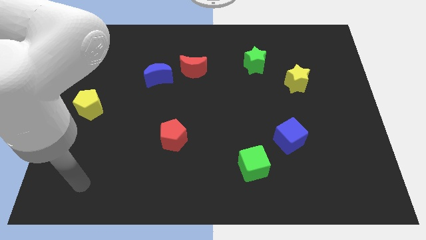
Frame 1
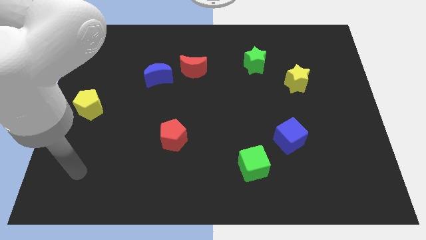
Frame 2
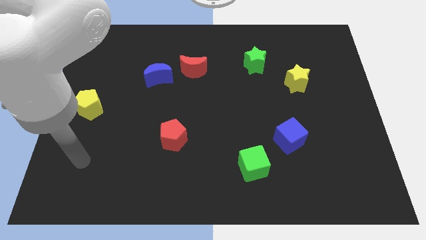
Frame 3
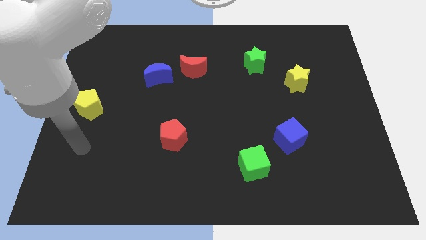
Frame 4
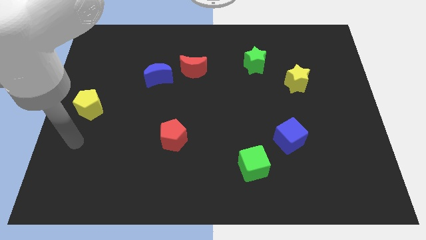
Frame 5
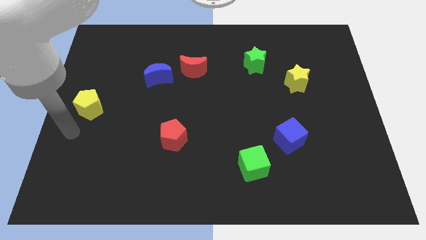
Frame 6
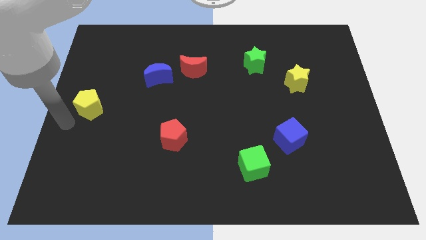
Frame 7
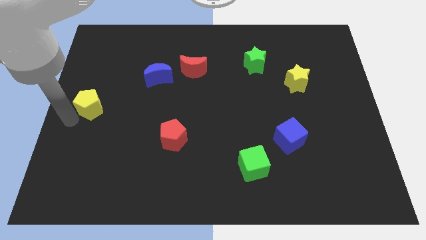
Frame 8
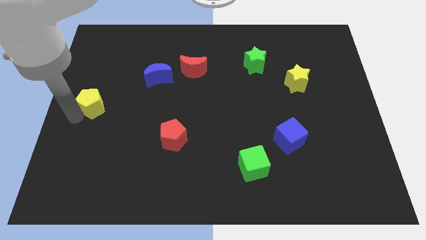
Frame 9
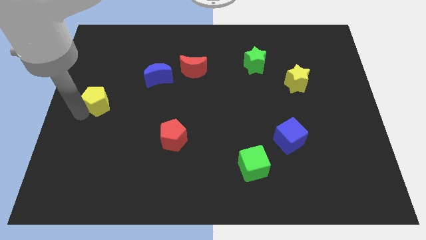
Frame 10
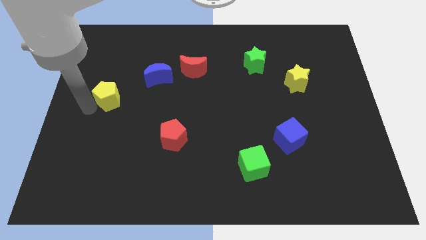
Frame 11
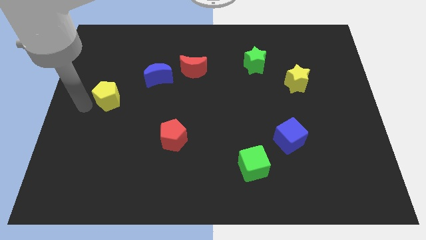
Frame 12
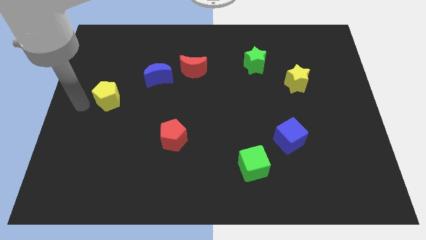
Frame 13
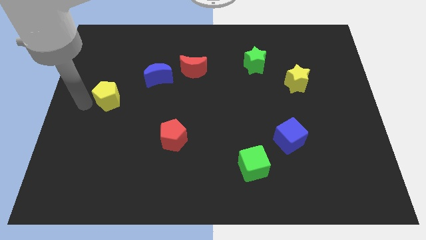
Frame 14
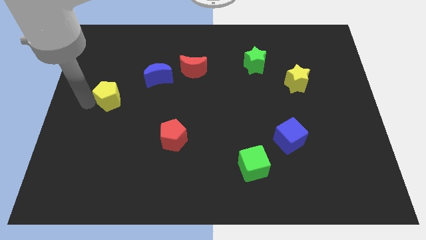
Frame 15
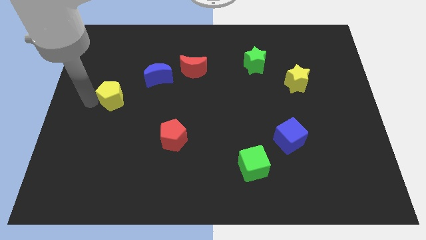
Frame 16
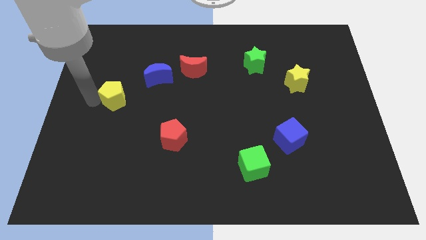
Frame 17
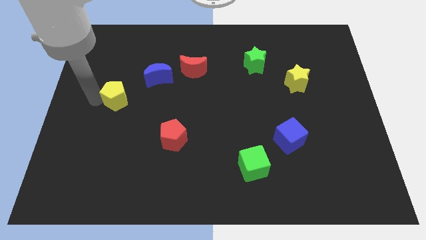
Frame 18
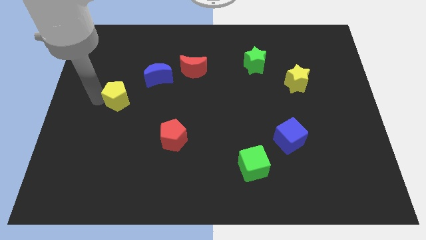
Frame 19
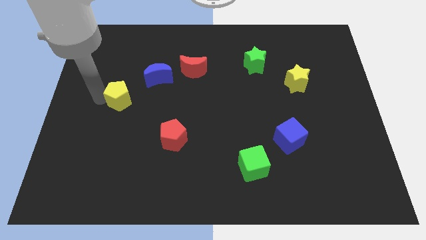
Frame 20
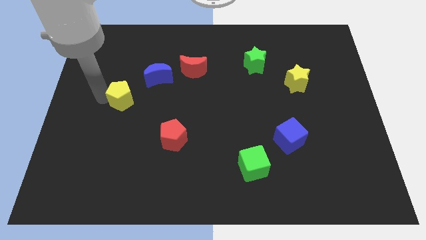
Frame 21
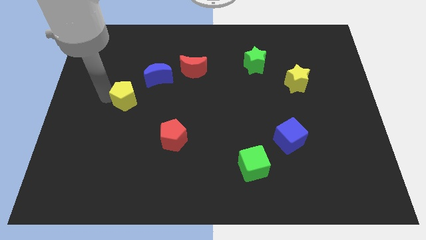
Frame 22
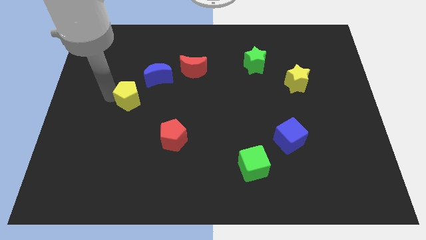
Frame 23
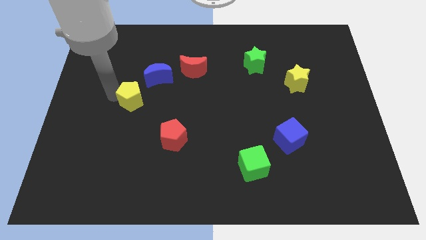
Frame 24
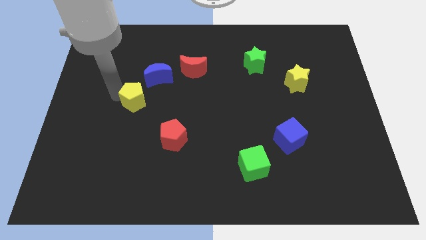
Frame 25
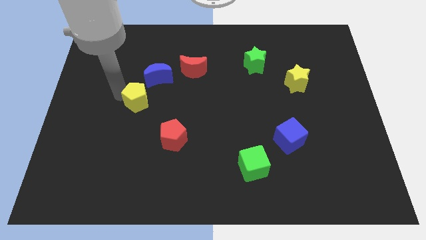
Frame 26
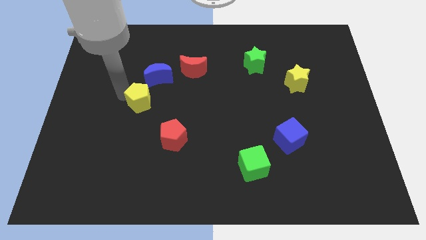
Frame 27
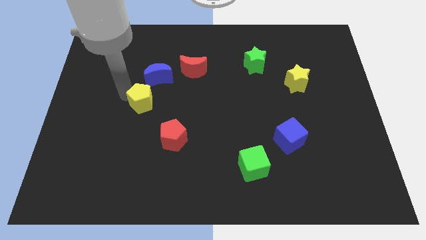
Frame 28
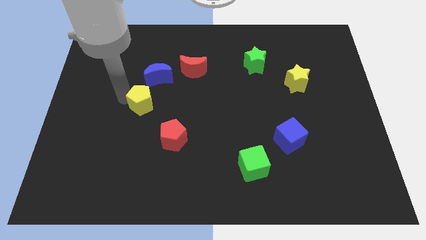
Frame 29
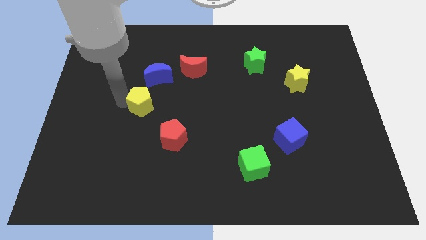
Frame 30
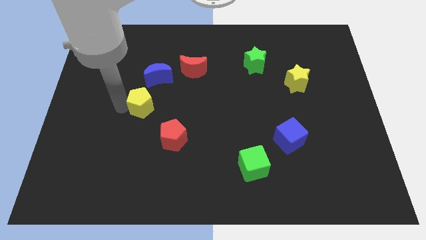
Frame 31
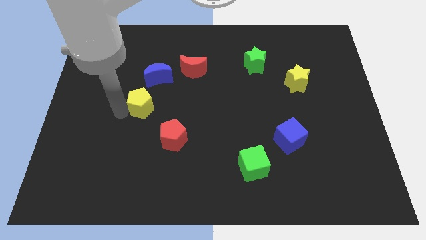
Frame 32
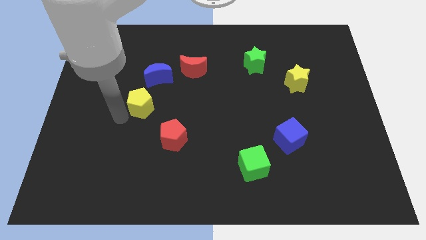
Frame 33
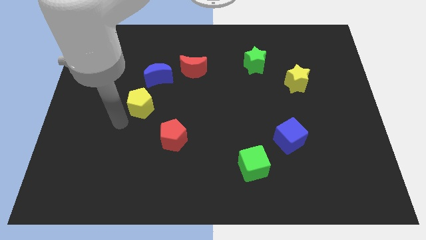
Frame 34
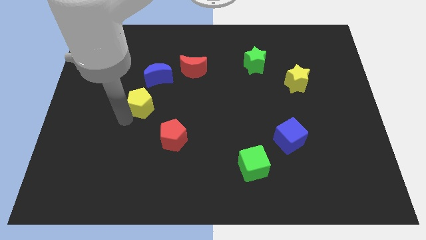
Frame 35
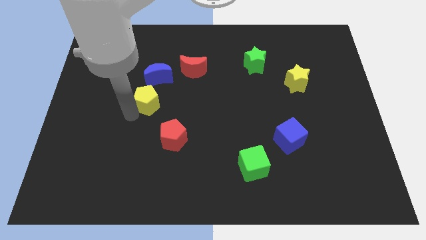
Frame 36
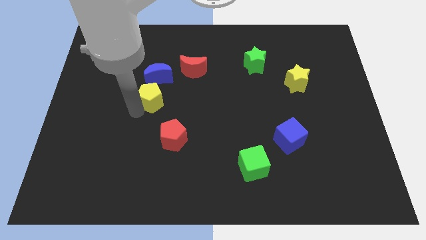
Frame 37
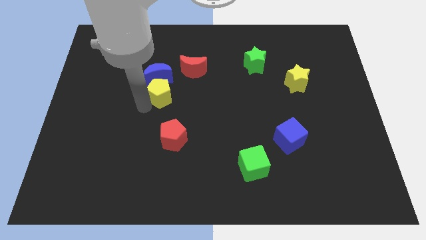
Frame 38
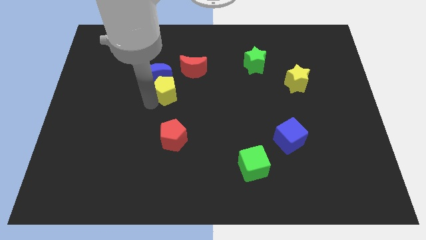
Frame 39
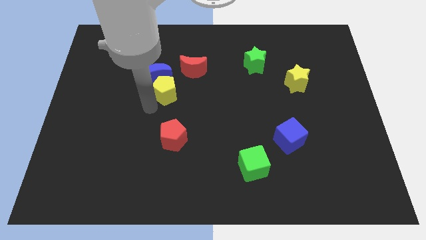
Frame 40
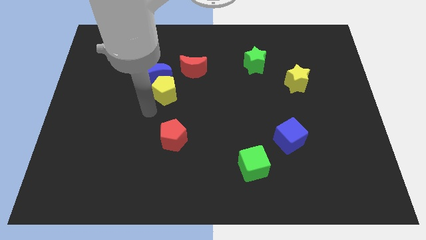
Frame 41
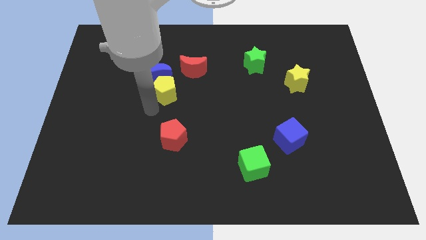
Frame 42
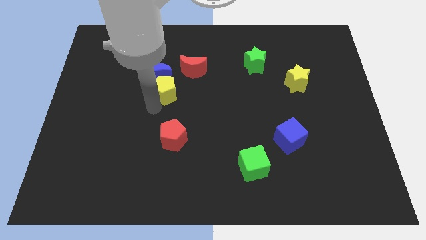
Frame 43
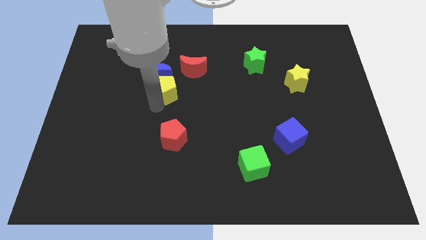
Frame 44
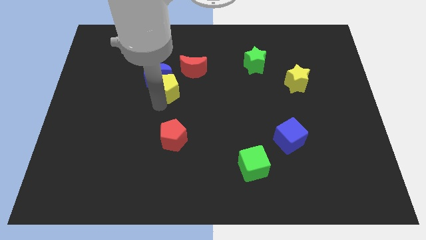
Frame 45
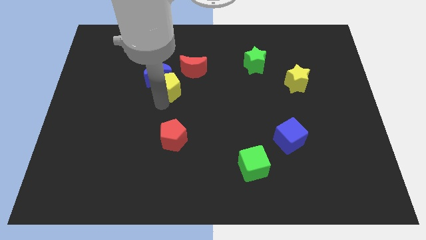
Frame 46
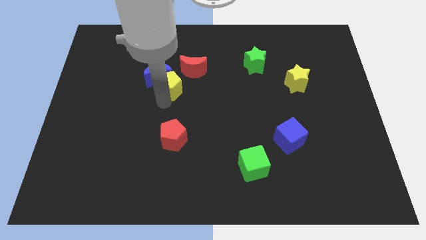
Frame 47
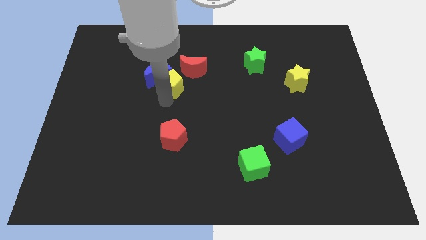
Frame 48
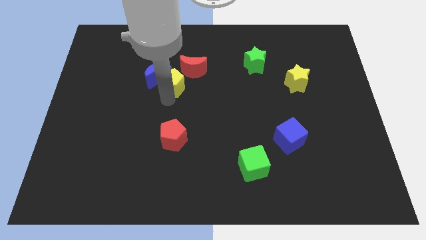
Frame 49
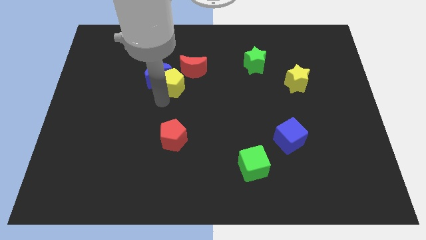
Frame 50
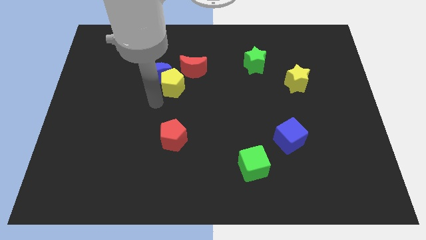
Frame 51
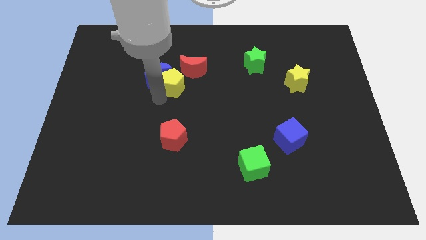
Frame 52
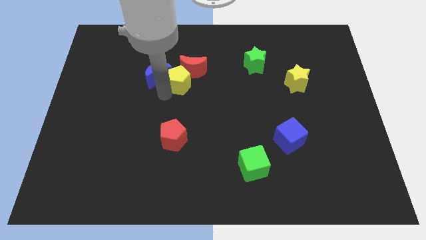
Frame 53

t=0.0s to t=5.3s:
put the yellow pentagon towards the red moon

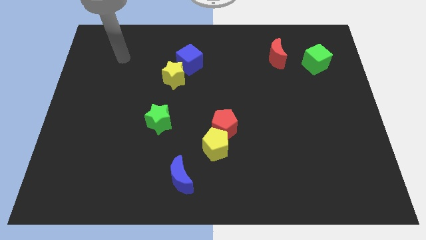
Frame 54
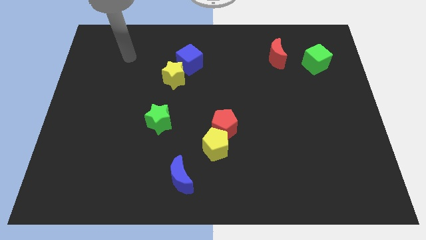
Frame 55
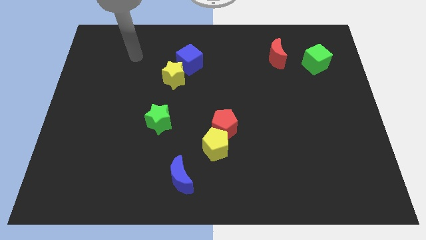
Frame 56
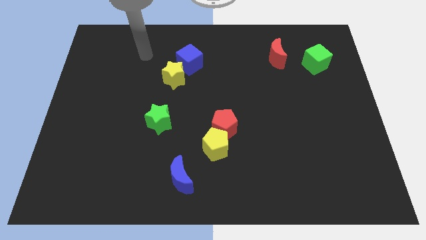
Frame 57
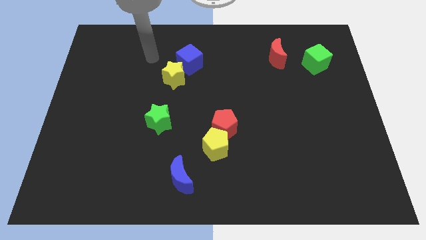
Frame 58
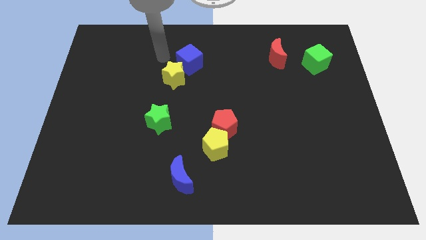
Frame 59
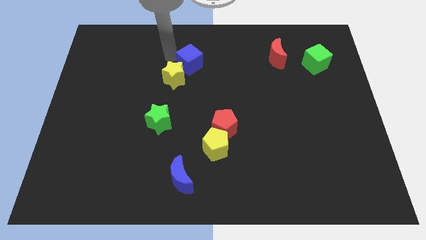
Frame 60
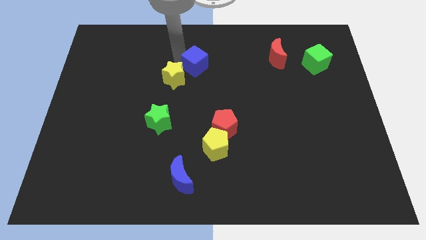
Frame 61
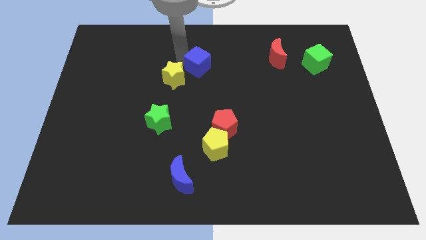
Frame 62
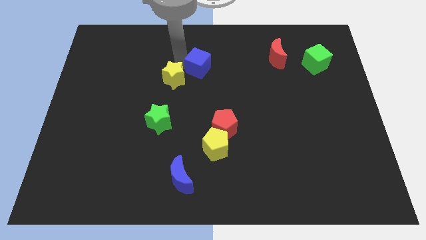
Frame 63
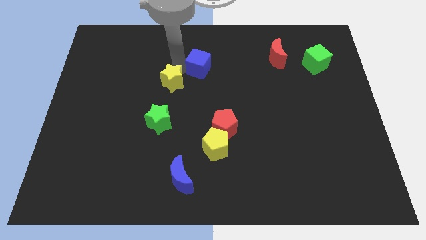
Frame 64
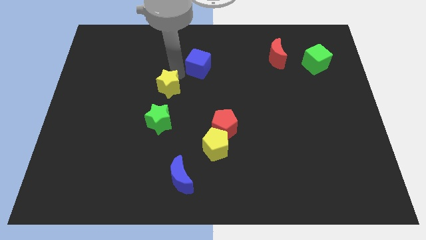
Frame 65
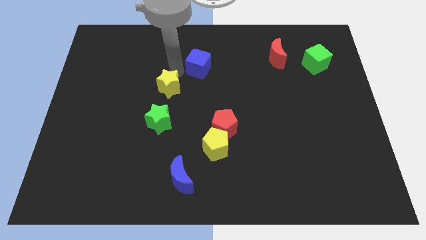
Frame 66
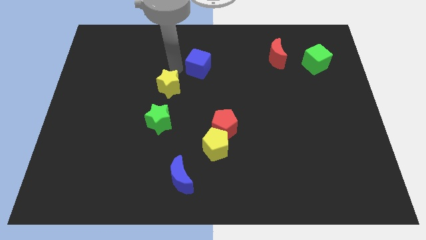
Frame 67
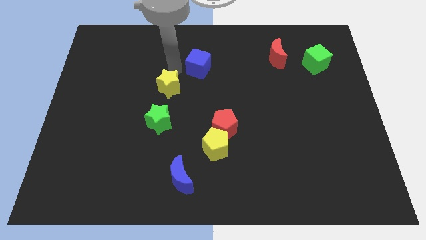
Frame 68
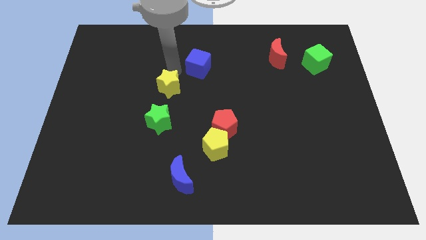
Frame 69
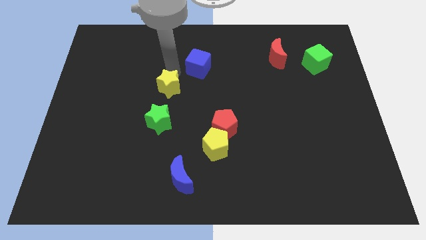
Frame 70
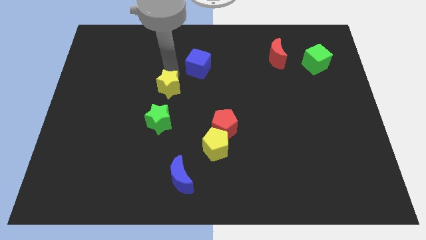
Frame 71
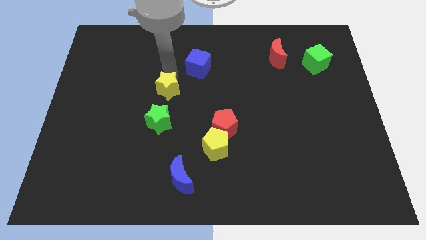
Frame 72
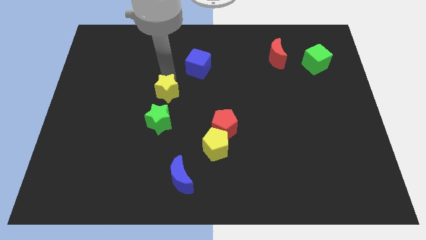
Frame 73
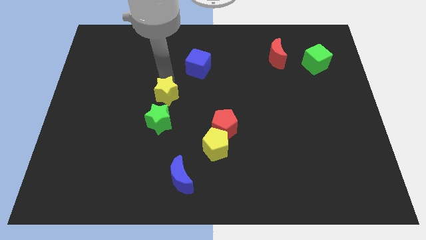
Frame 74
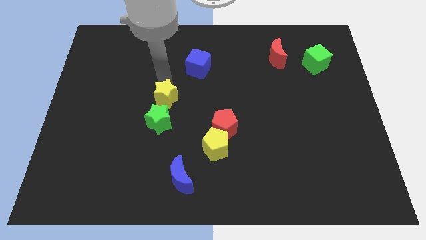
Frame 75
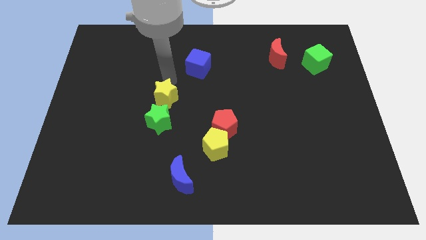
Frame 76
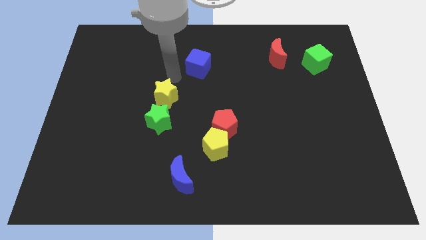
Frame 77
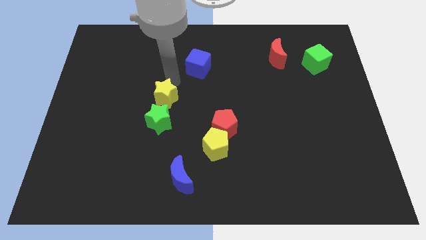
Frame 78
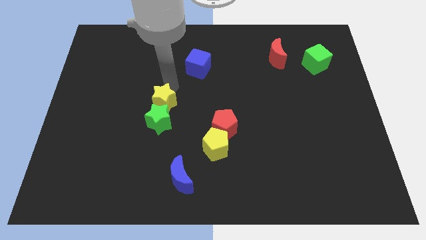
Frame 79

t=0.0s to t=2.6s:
move the yellow star towards the green star
